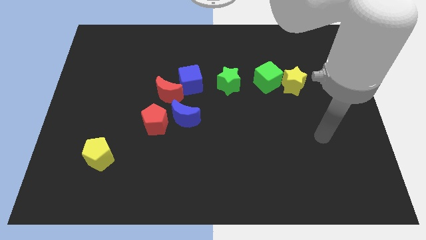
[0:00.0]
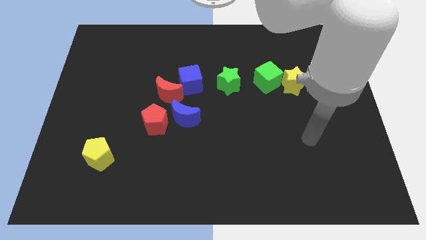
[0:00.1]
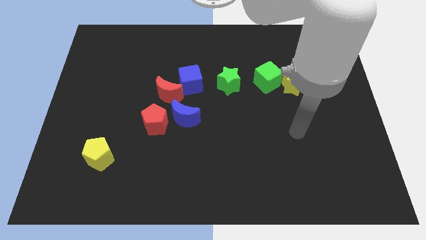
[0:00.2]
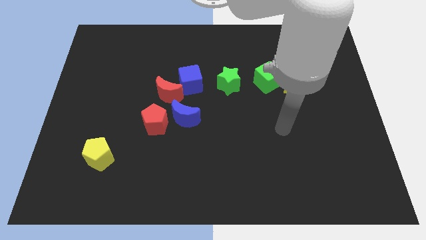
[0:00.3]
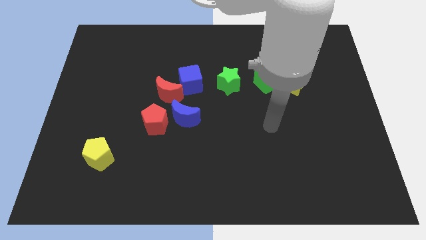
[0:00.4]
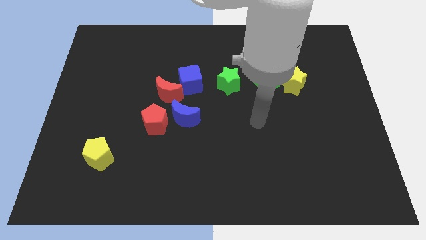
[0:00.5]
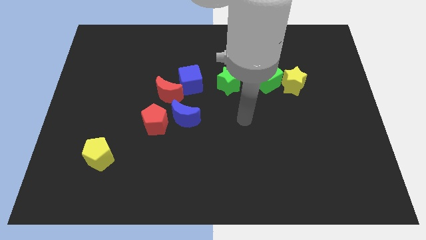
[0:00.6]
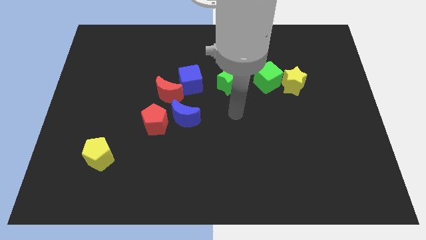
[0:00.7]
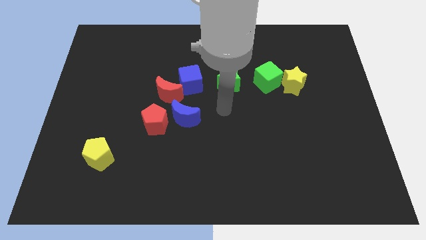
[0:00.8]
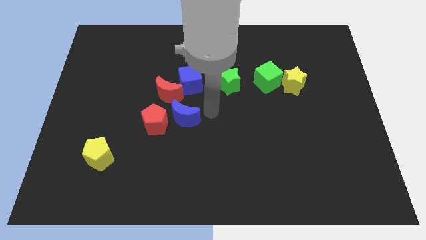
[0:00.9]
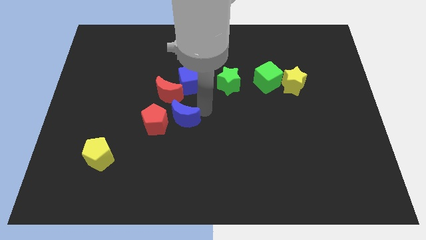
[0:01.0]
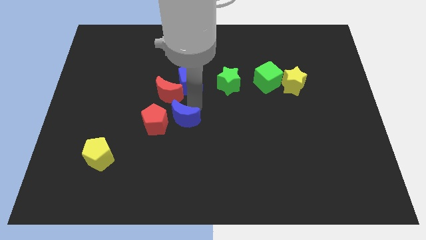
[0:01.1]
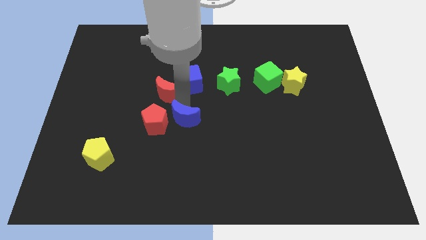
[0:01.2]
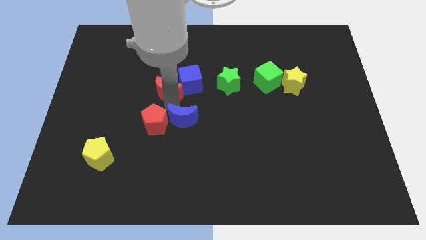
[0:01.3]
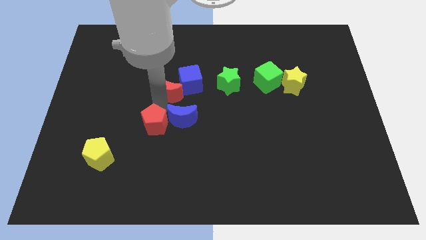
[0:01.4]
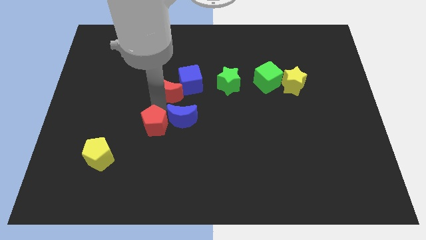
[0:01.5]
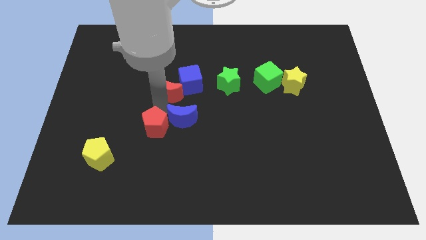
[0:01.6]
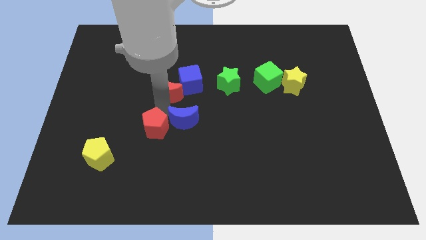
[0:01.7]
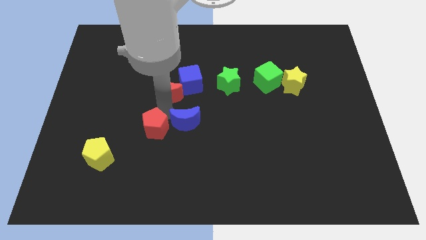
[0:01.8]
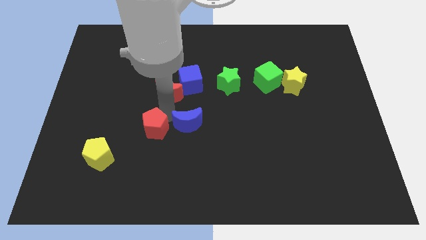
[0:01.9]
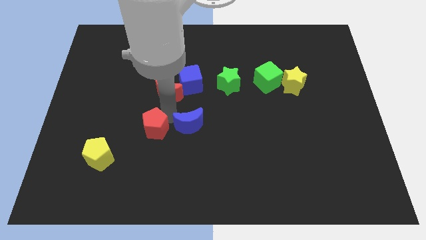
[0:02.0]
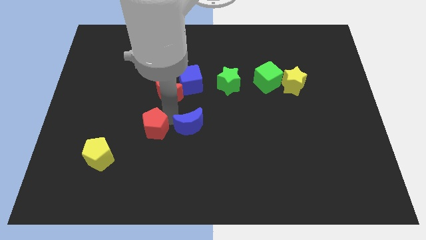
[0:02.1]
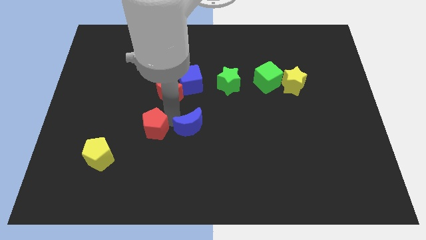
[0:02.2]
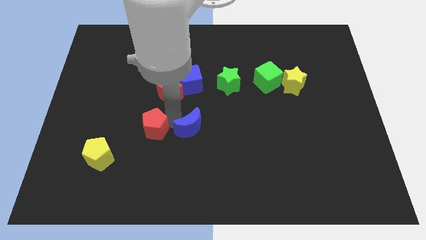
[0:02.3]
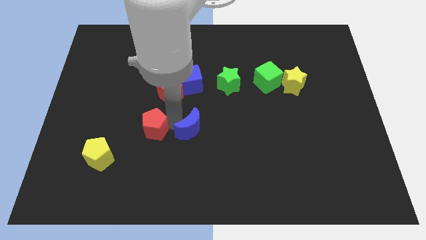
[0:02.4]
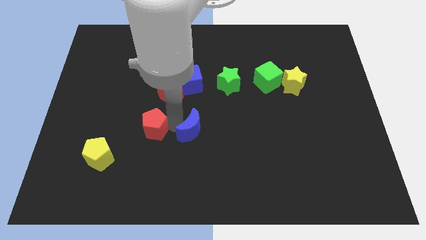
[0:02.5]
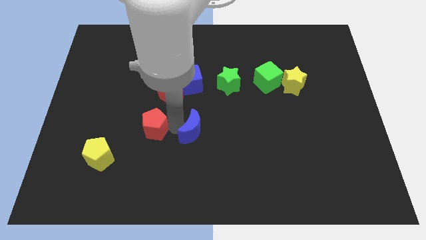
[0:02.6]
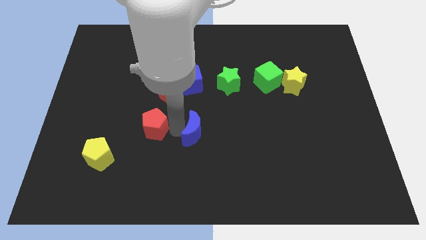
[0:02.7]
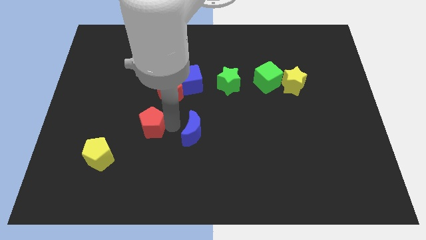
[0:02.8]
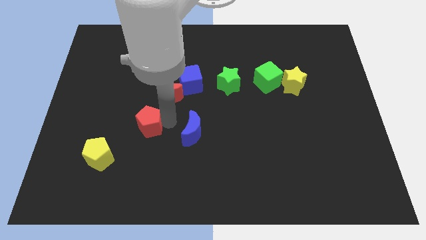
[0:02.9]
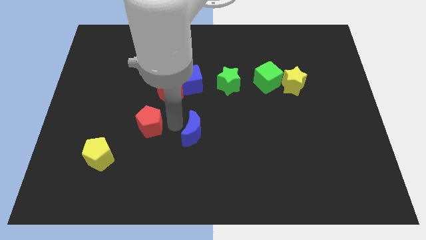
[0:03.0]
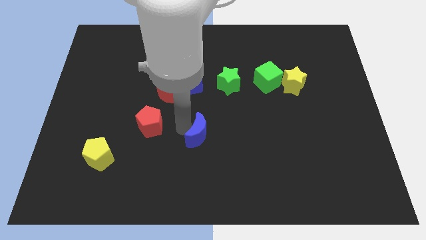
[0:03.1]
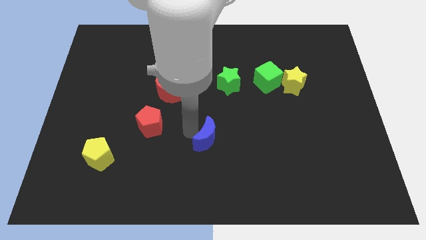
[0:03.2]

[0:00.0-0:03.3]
slightly push the blue moon downwards and to the right diagonally

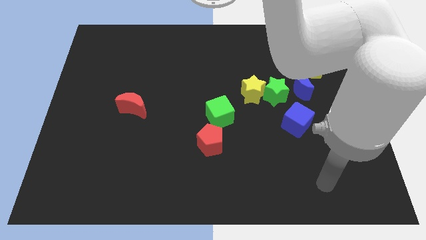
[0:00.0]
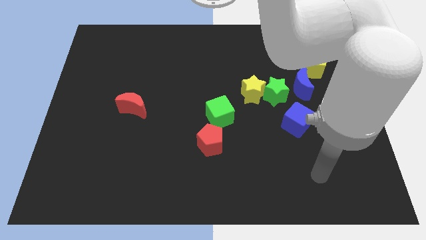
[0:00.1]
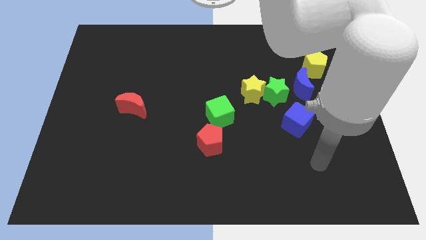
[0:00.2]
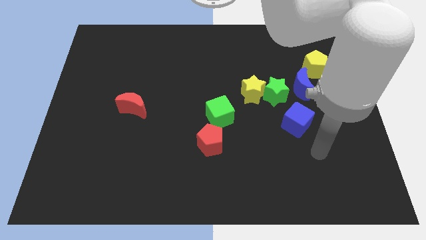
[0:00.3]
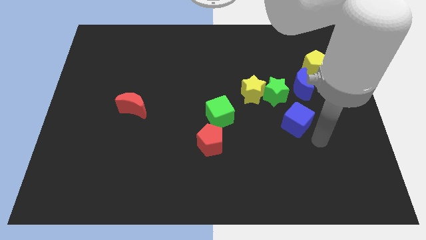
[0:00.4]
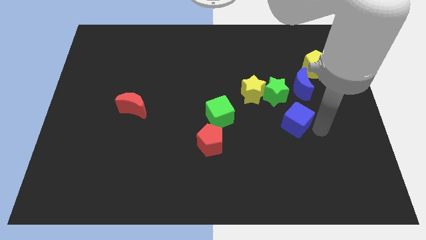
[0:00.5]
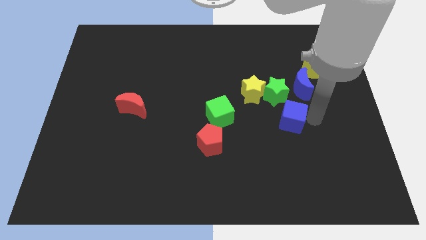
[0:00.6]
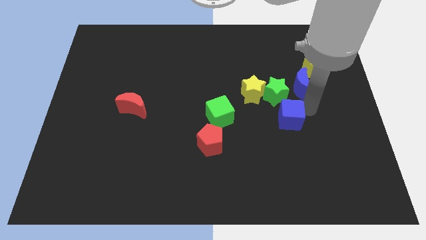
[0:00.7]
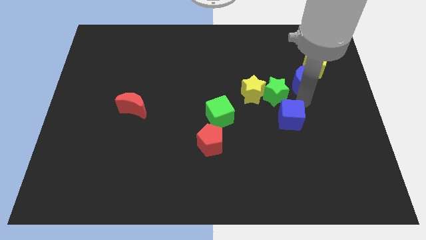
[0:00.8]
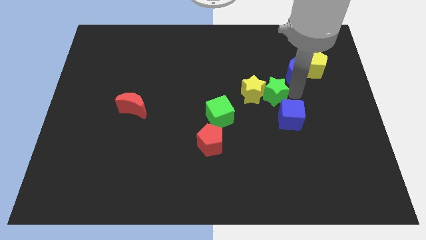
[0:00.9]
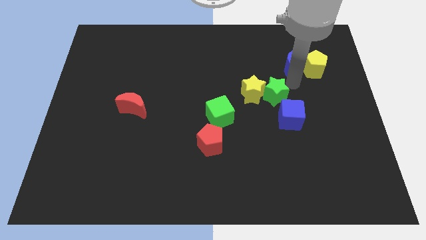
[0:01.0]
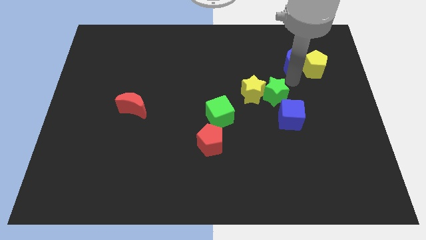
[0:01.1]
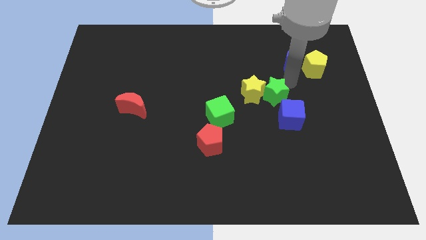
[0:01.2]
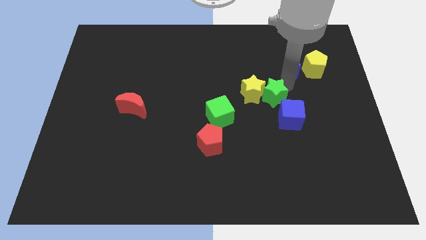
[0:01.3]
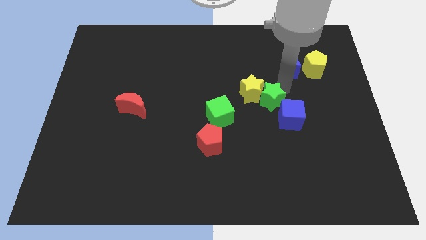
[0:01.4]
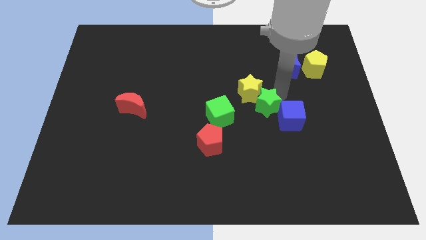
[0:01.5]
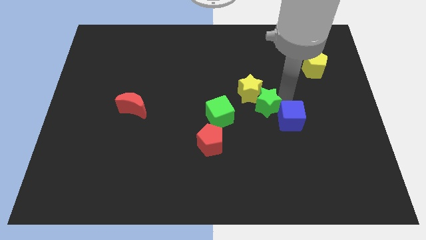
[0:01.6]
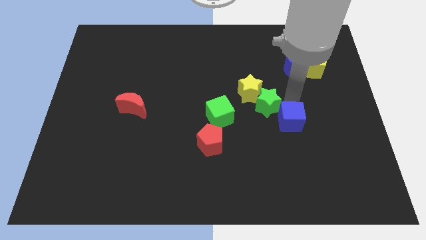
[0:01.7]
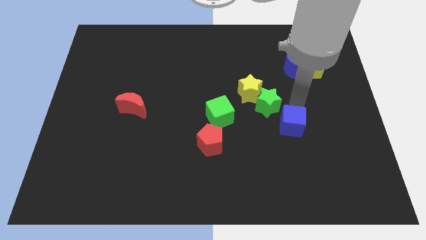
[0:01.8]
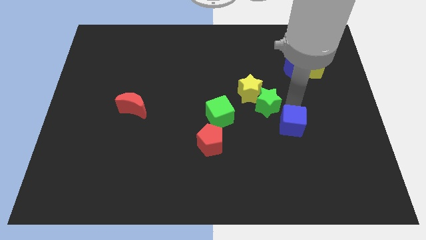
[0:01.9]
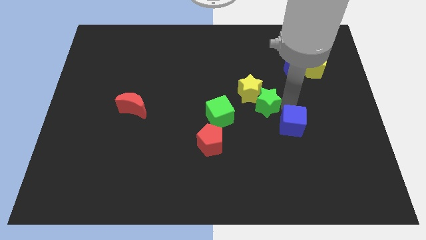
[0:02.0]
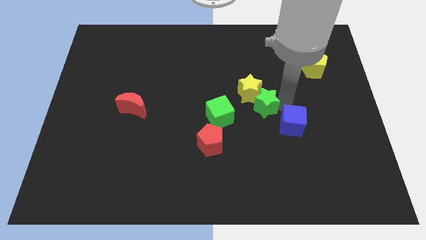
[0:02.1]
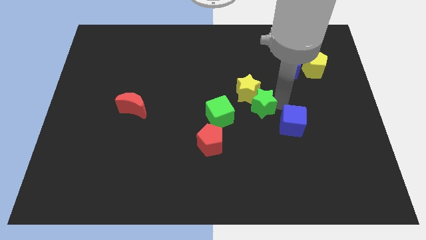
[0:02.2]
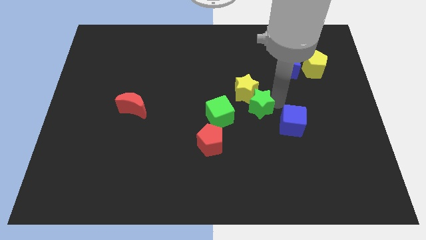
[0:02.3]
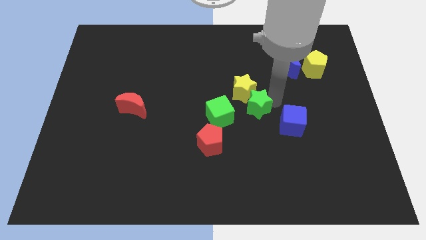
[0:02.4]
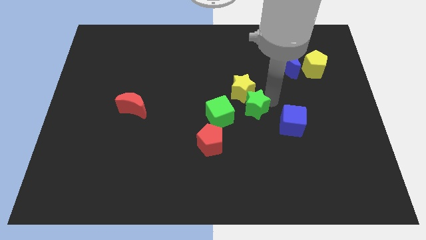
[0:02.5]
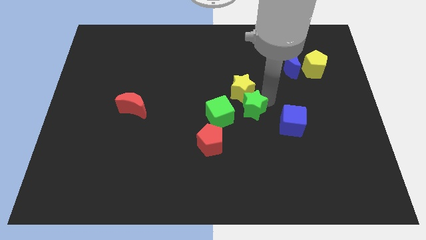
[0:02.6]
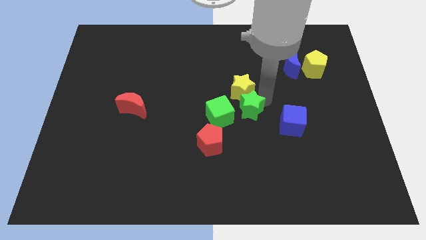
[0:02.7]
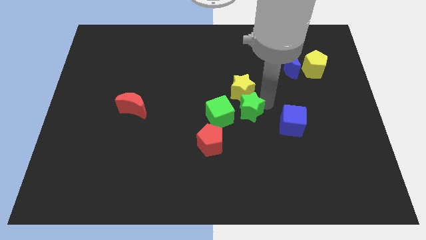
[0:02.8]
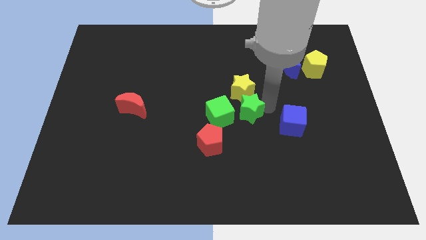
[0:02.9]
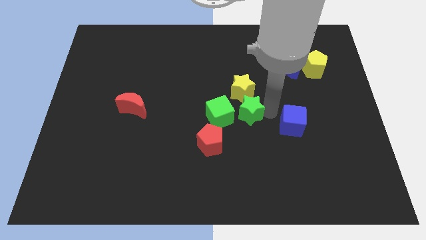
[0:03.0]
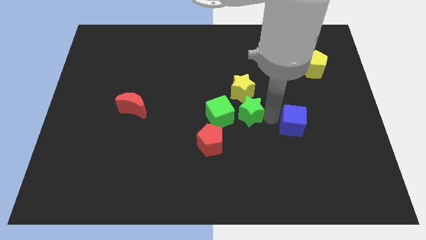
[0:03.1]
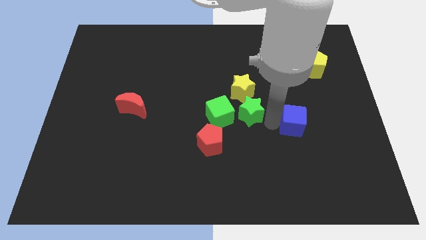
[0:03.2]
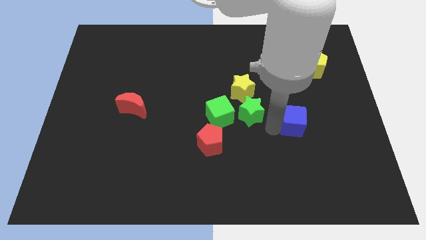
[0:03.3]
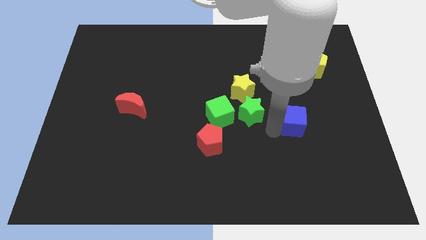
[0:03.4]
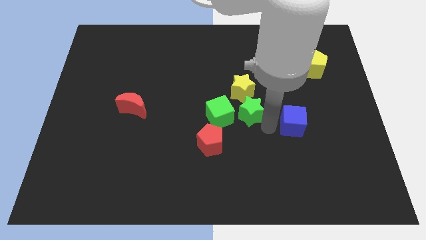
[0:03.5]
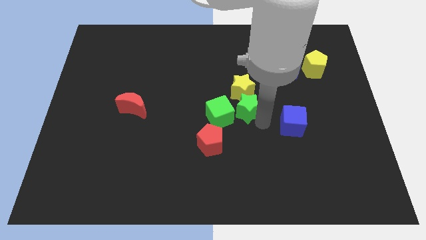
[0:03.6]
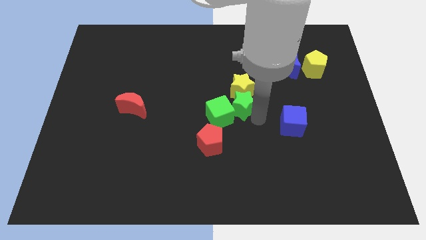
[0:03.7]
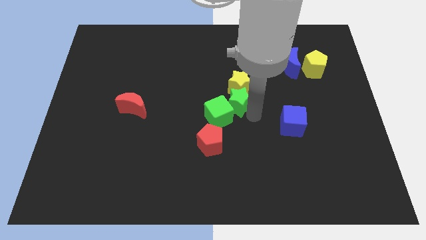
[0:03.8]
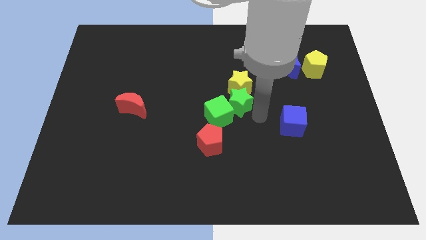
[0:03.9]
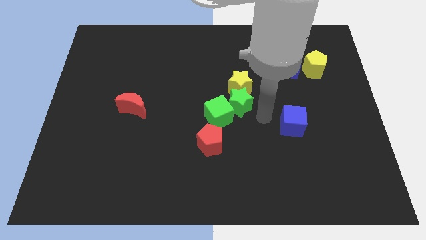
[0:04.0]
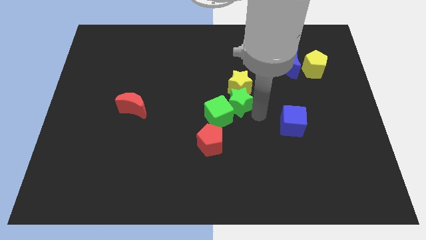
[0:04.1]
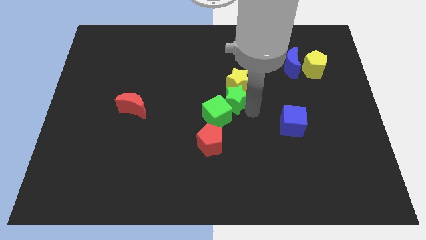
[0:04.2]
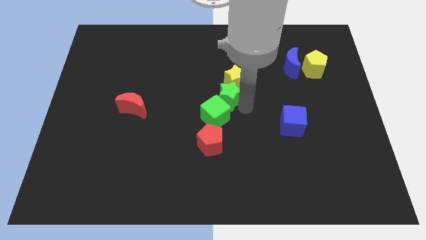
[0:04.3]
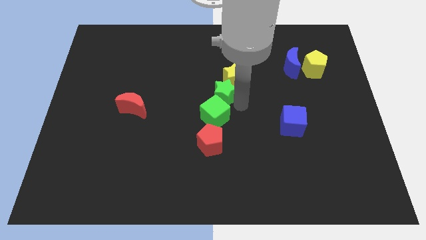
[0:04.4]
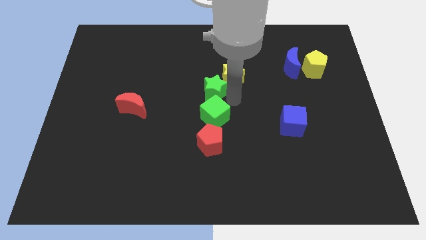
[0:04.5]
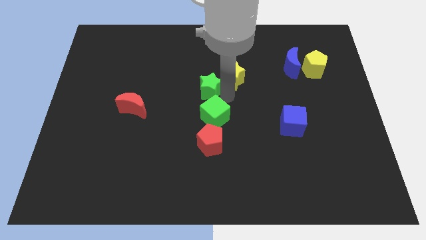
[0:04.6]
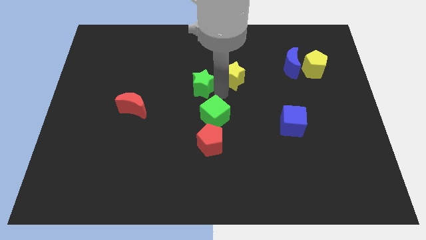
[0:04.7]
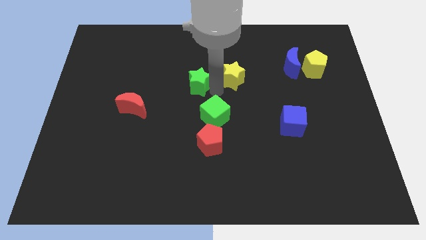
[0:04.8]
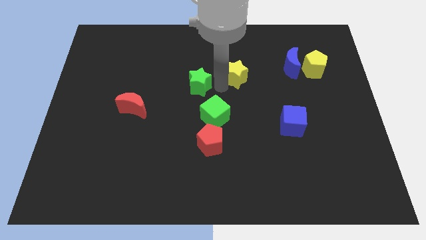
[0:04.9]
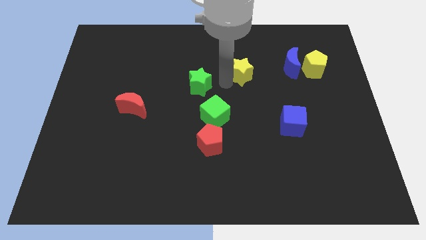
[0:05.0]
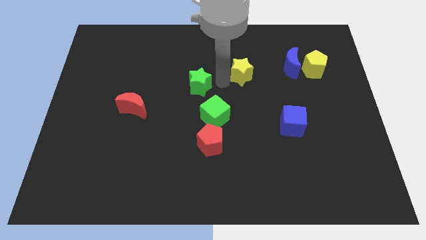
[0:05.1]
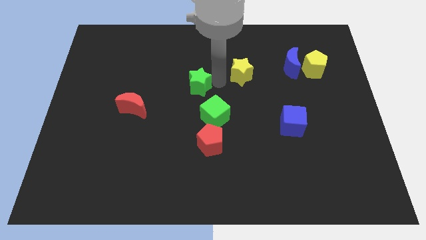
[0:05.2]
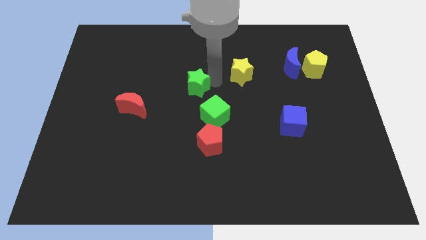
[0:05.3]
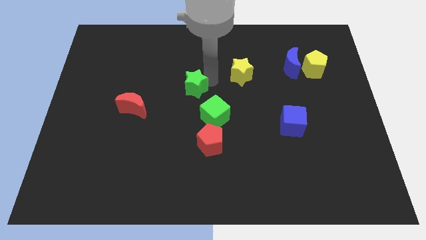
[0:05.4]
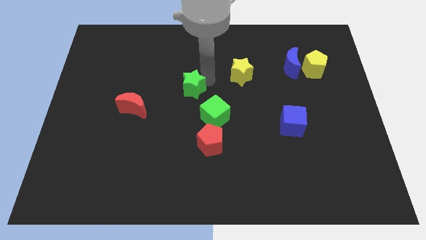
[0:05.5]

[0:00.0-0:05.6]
push the green star to the left
